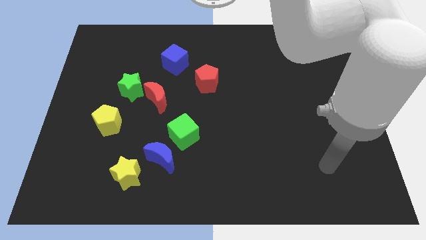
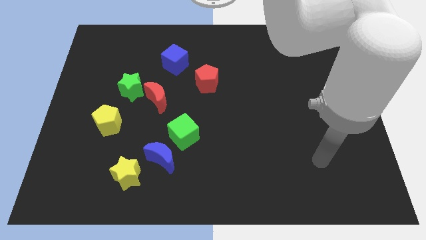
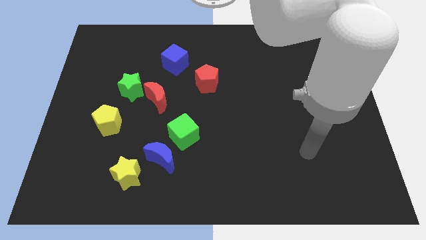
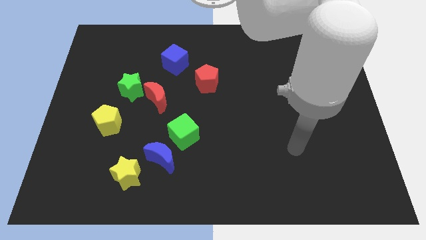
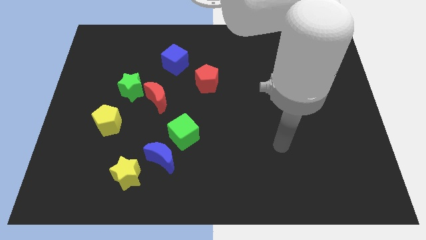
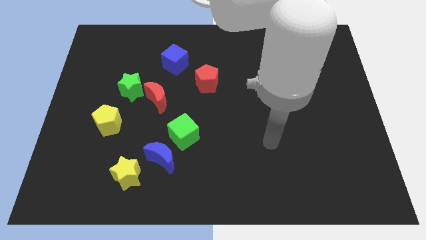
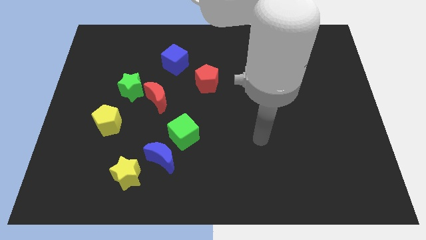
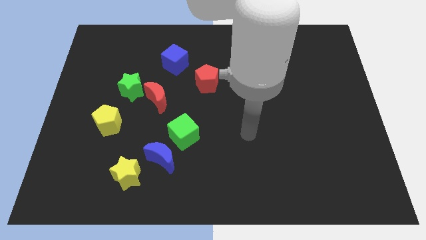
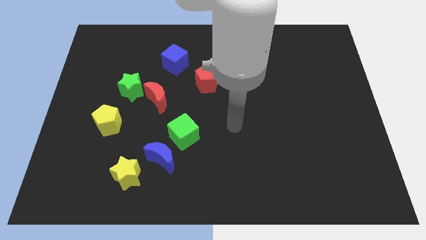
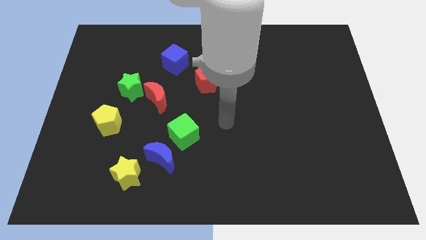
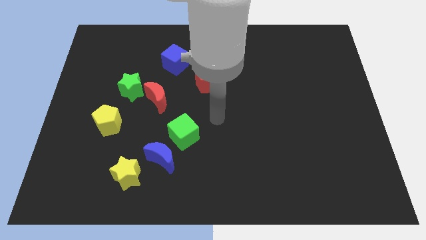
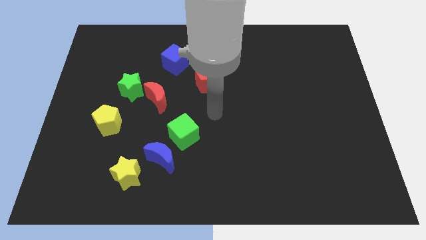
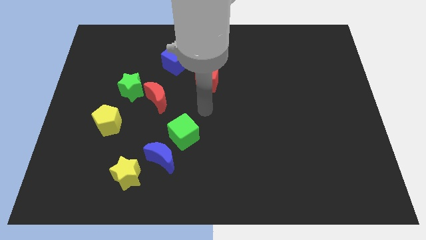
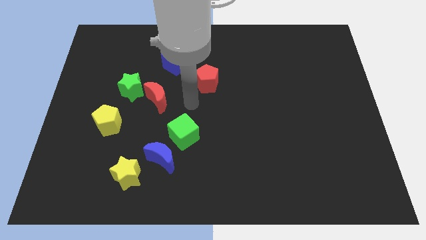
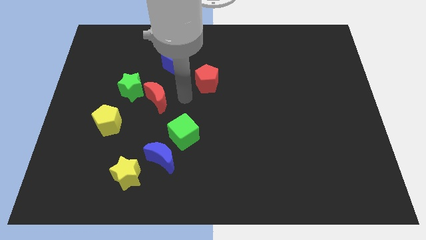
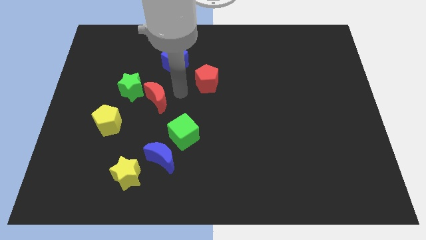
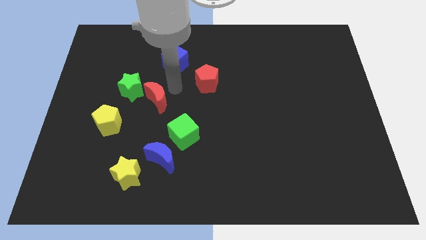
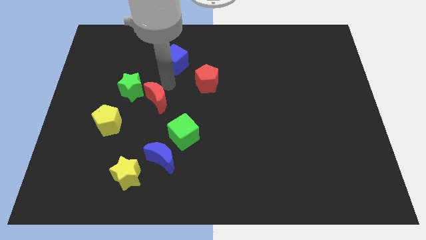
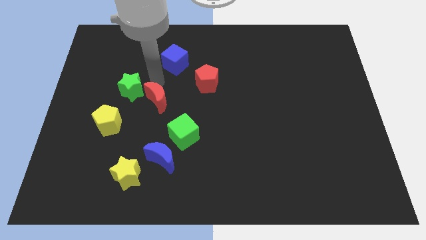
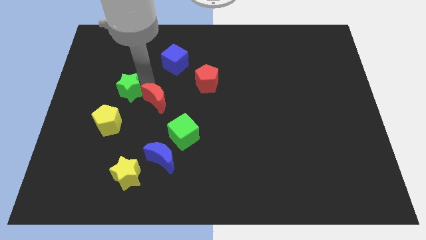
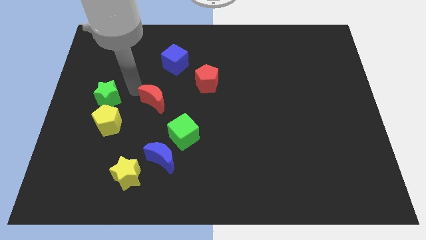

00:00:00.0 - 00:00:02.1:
pull the red moon apart from the green star

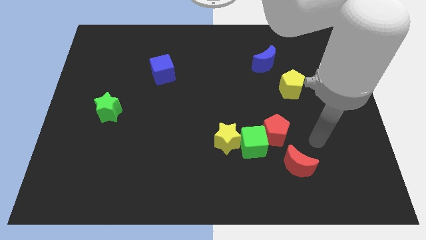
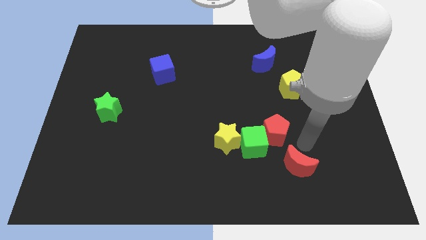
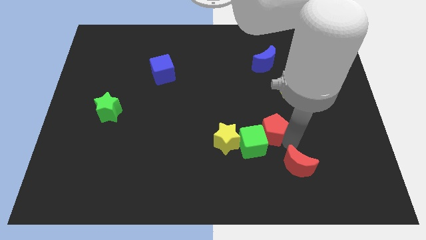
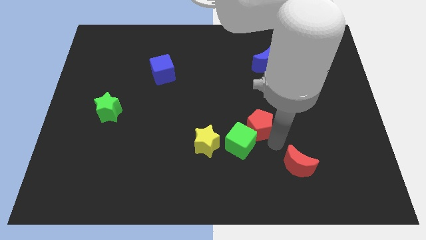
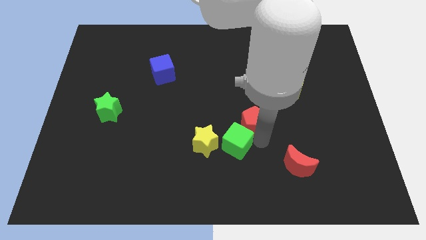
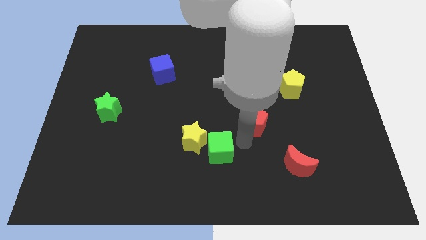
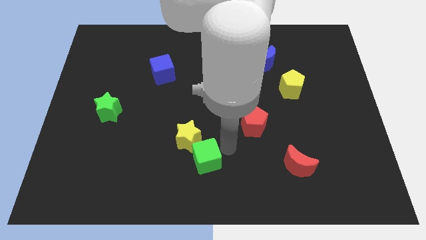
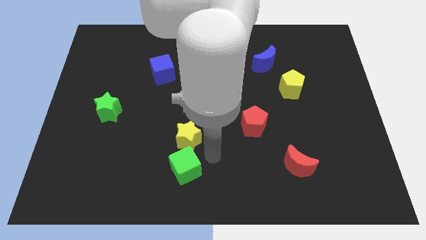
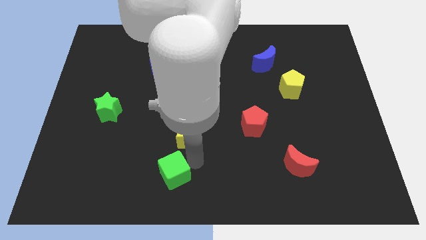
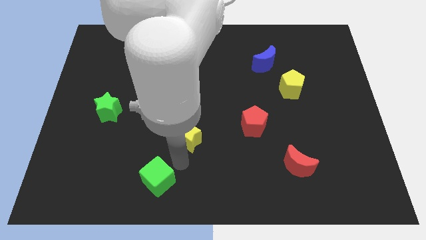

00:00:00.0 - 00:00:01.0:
move the yellow star away from the green cube

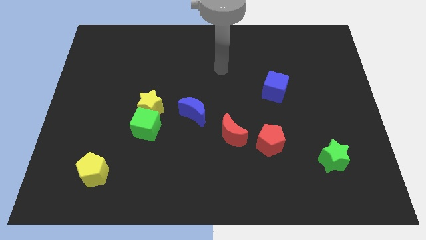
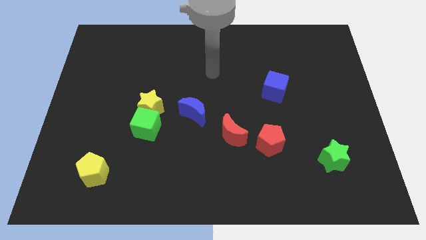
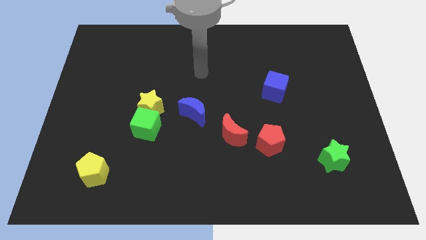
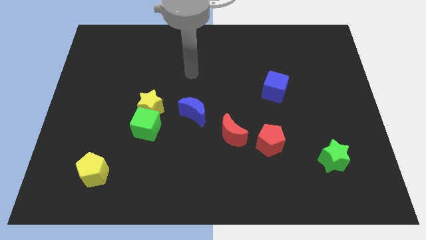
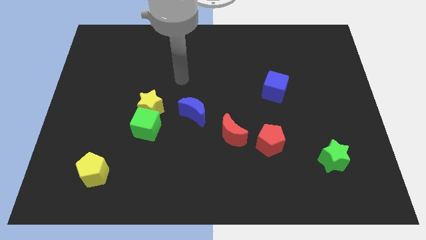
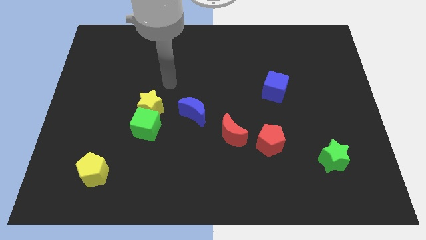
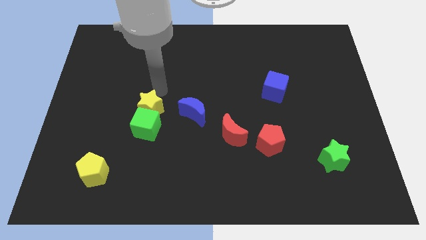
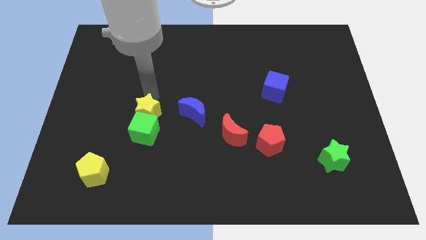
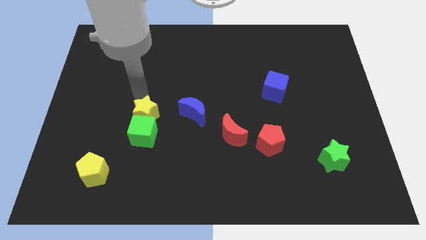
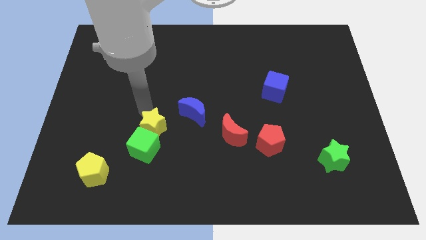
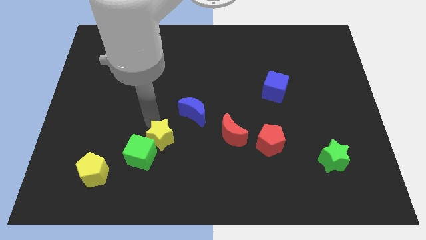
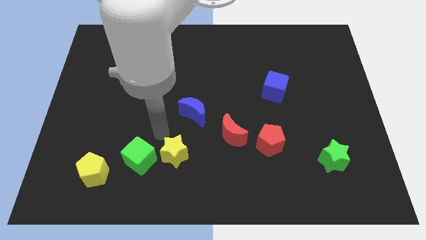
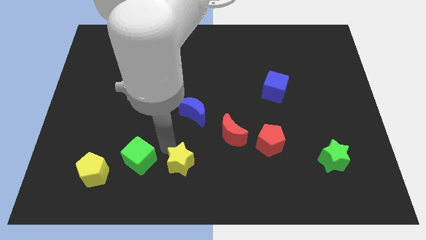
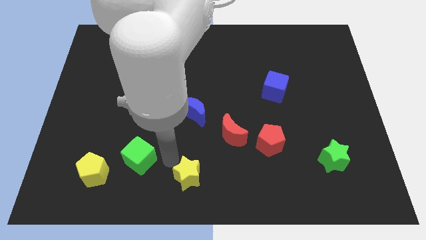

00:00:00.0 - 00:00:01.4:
move the green cube away from the yellow star

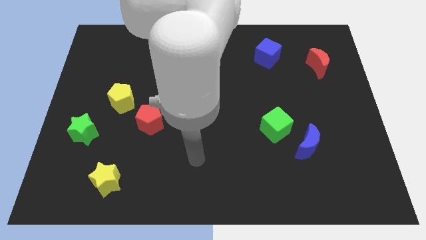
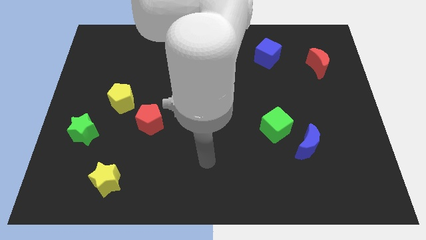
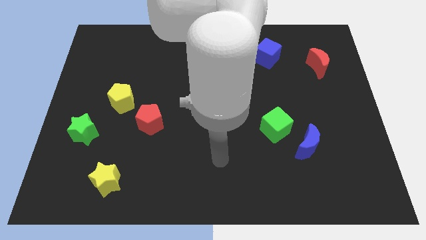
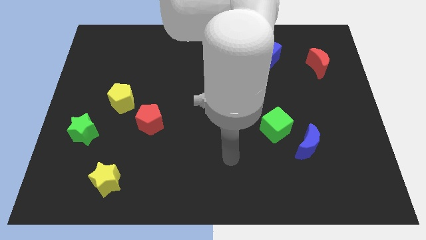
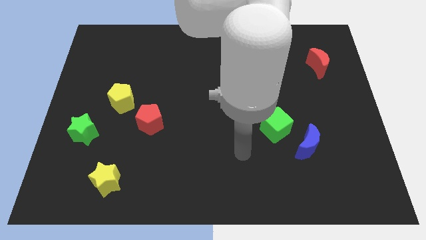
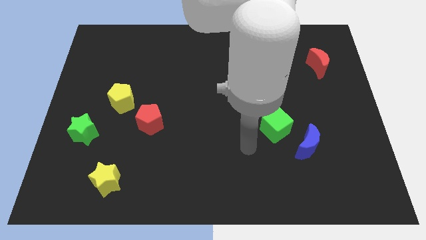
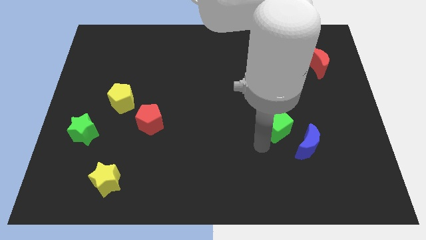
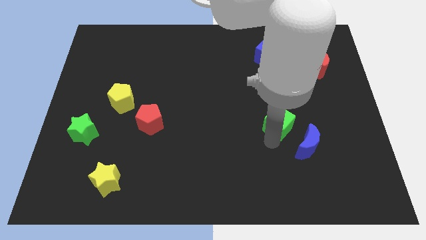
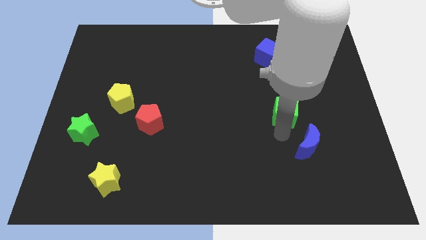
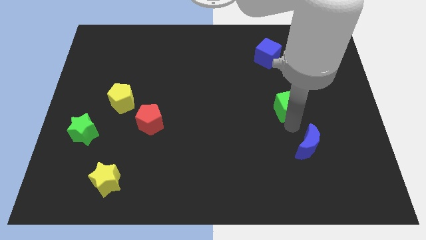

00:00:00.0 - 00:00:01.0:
pull the blue moon apart from the green cube

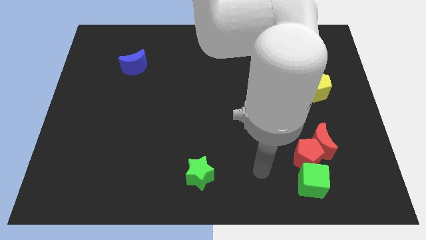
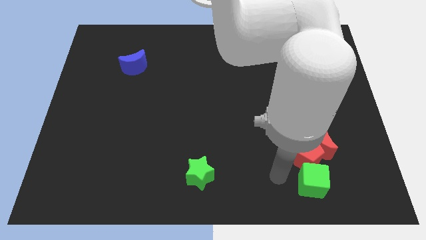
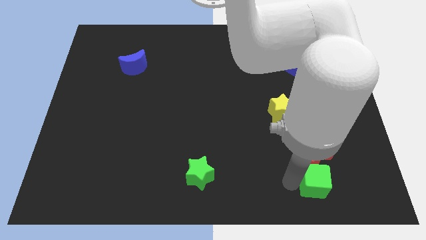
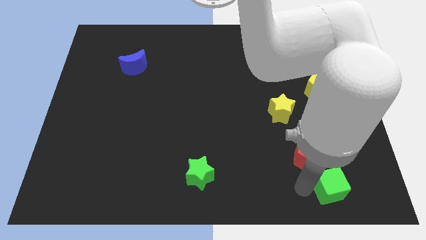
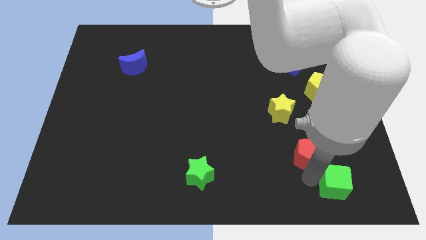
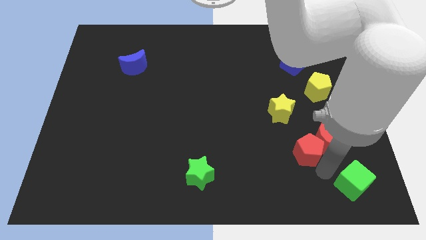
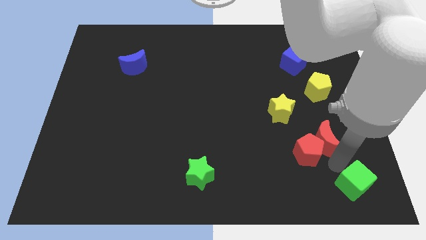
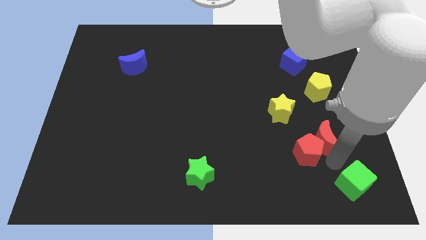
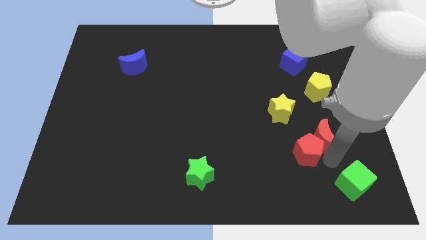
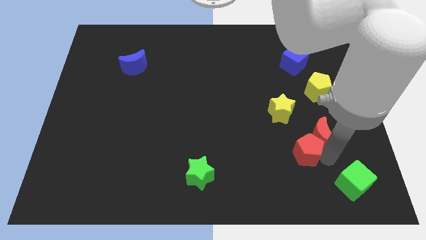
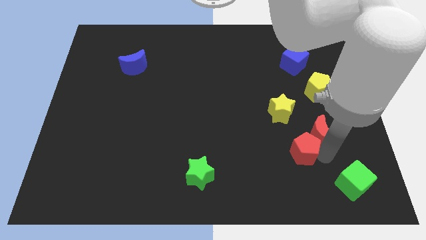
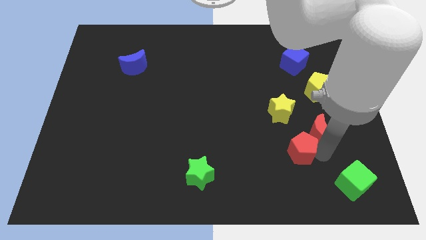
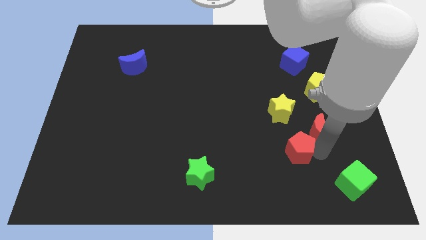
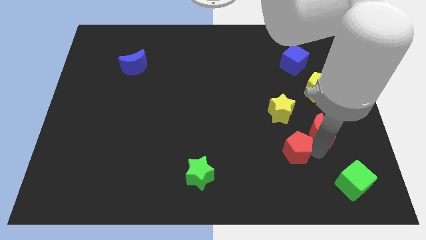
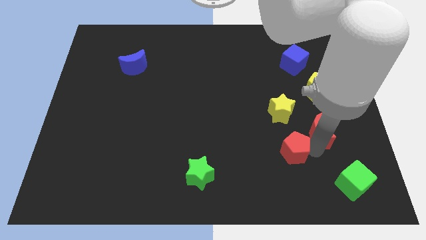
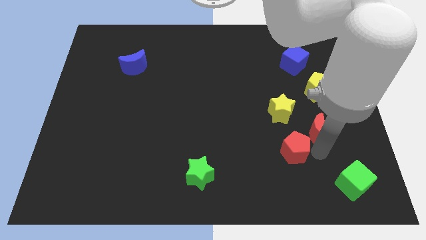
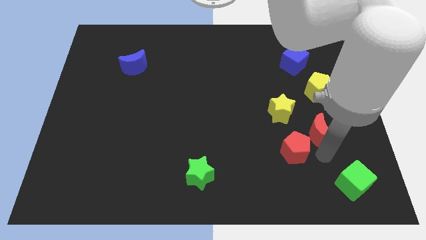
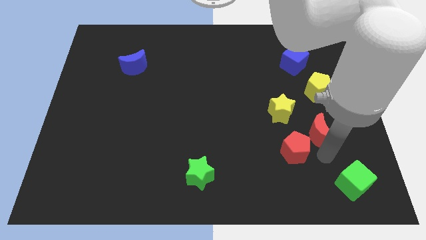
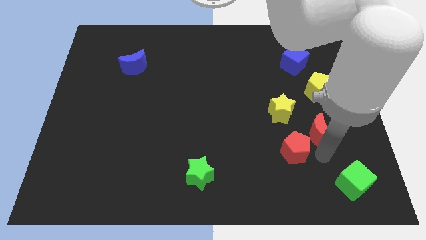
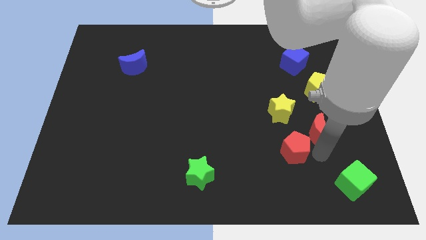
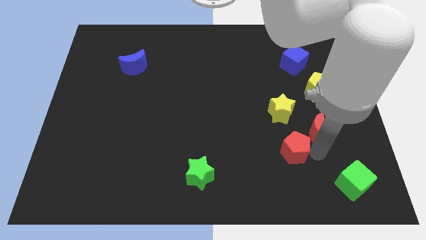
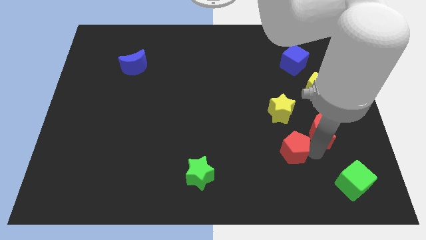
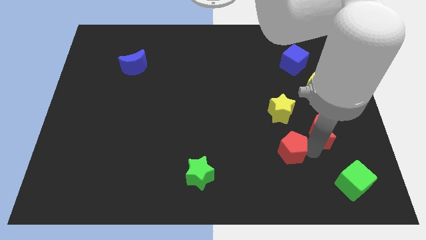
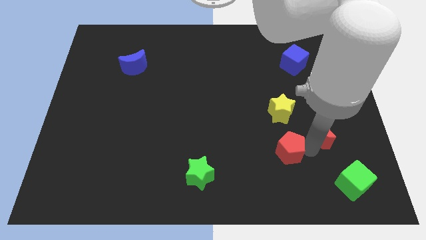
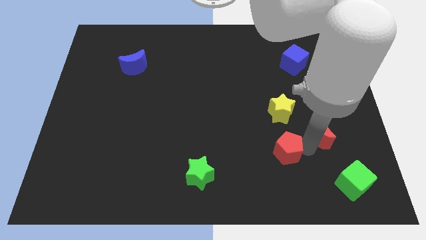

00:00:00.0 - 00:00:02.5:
move the red pentagon away from the red moon and green cube

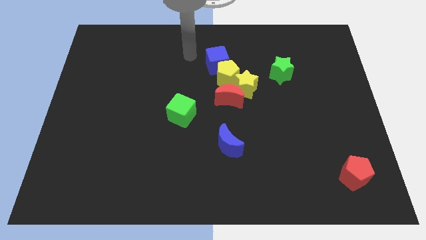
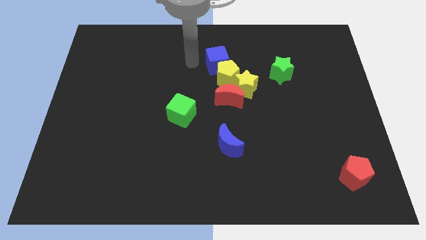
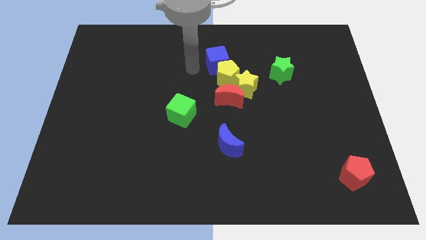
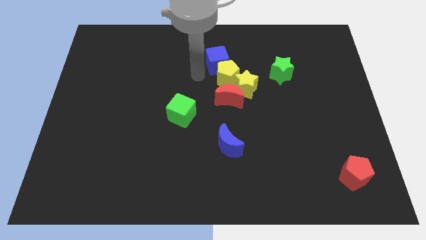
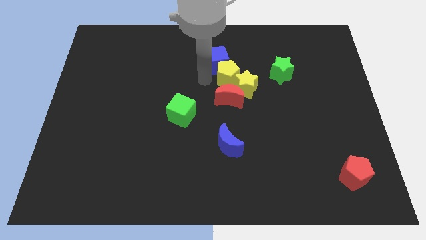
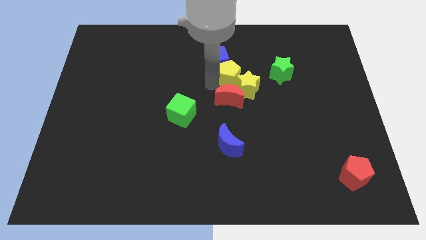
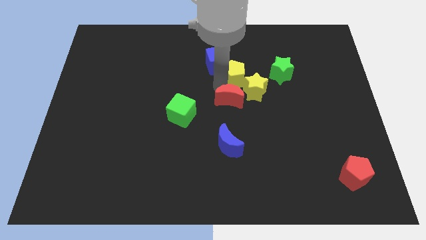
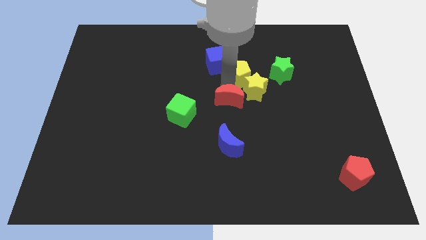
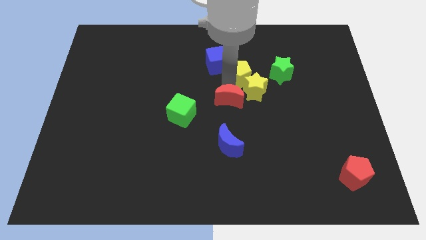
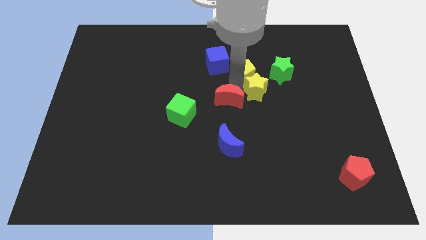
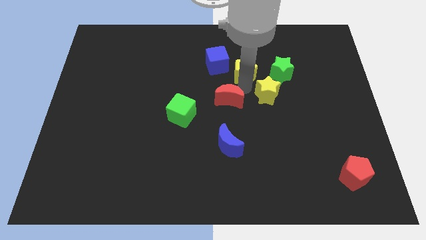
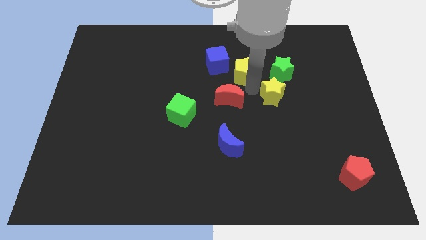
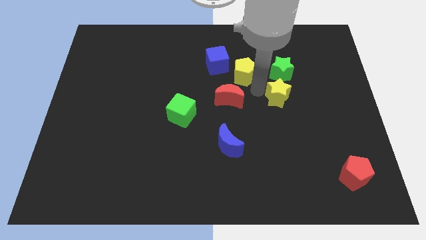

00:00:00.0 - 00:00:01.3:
separate the yellow star from the red moon and yellow pentagon
